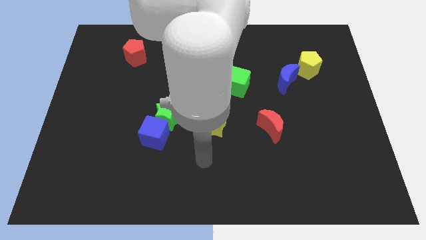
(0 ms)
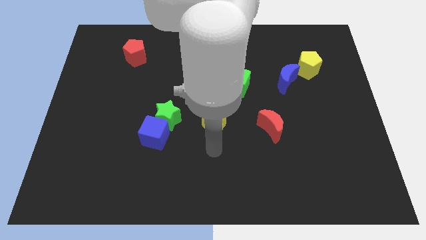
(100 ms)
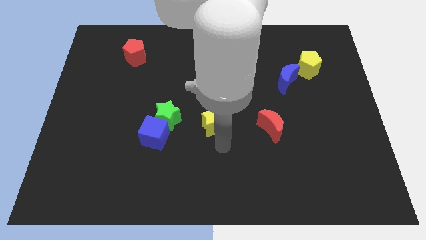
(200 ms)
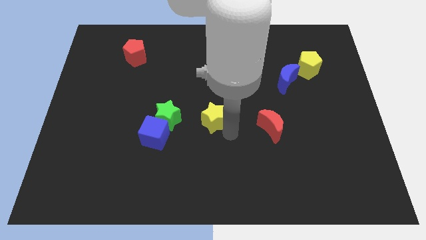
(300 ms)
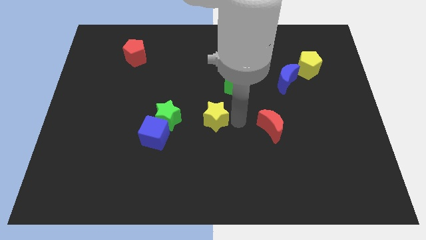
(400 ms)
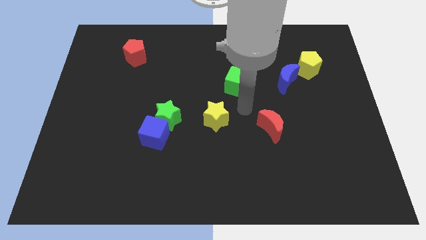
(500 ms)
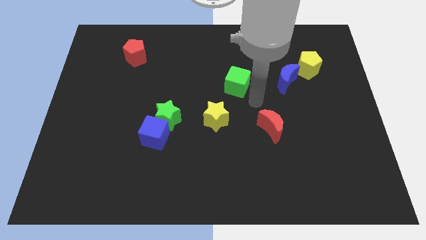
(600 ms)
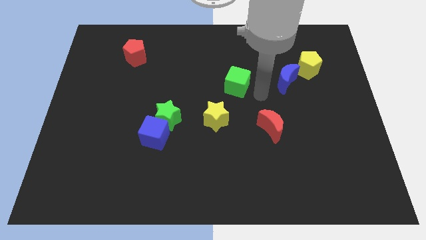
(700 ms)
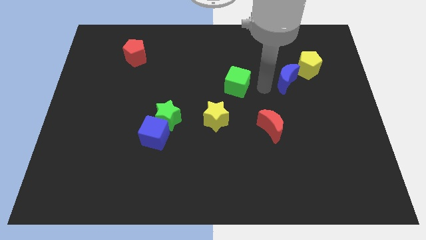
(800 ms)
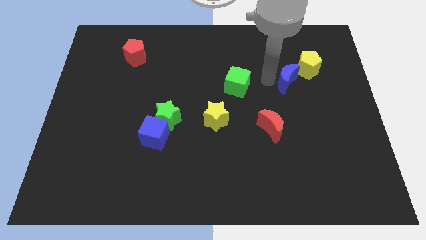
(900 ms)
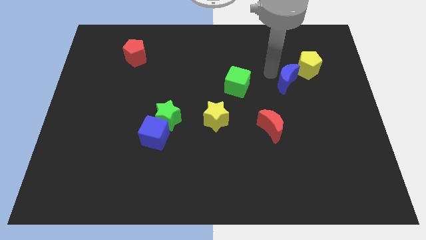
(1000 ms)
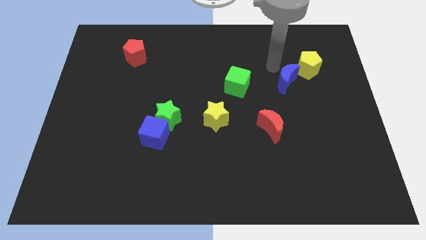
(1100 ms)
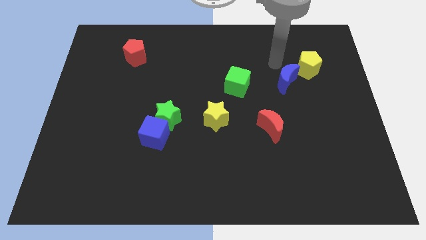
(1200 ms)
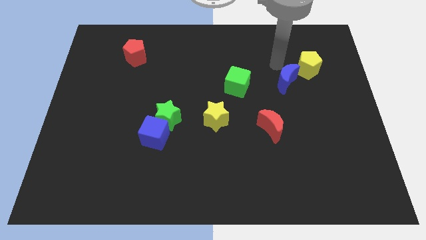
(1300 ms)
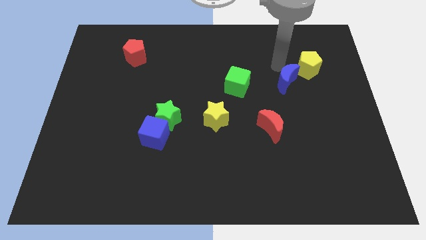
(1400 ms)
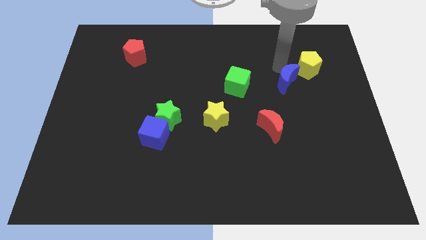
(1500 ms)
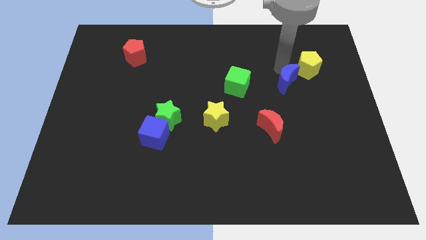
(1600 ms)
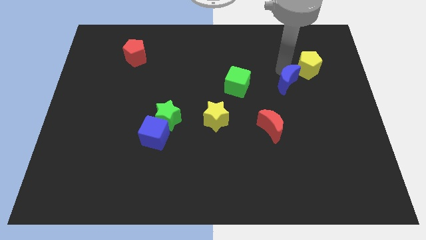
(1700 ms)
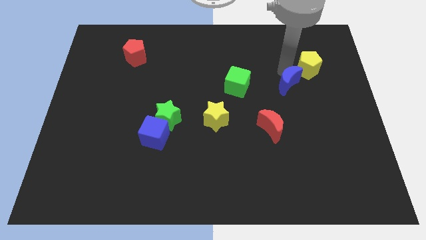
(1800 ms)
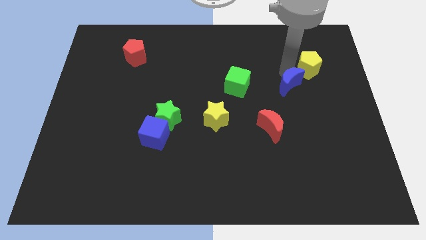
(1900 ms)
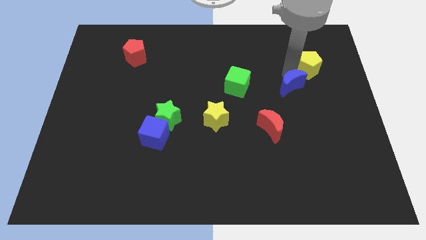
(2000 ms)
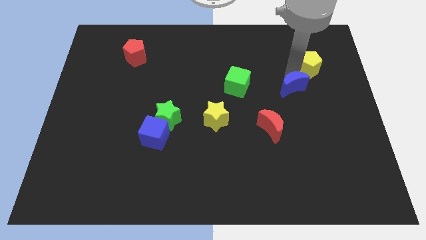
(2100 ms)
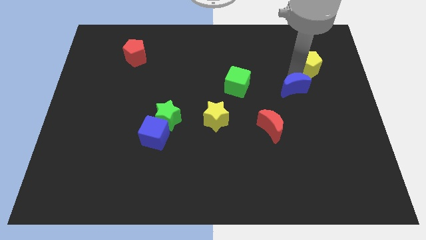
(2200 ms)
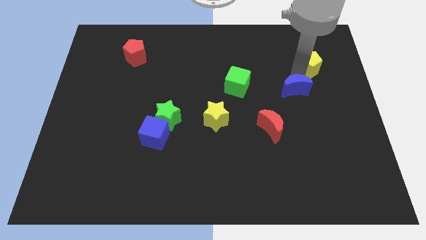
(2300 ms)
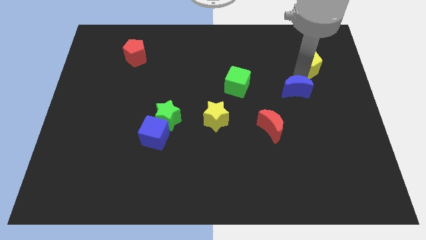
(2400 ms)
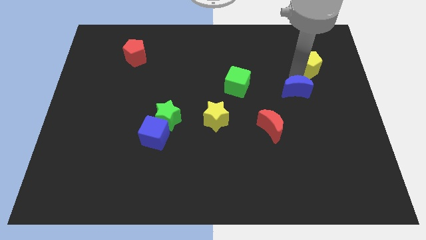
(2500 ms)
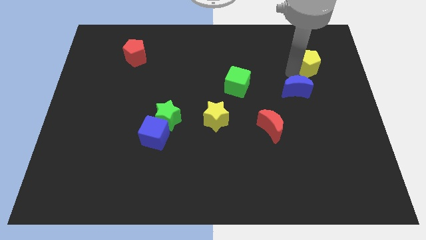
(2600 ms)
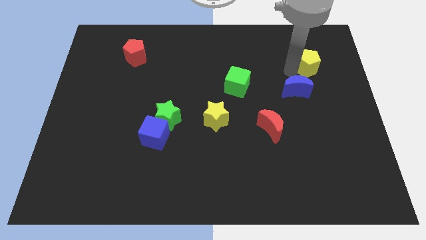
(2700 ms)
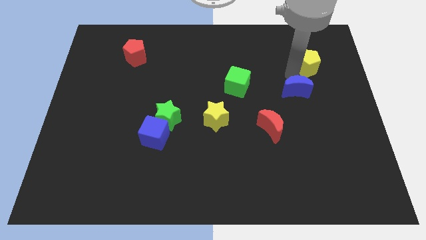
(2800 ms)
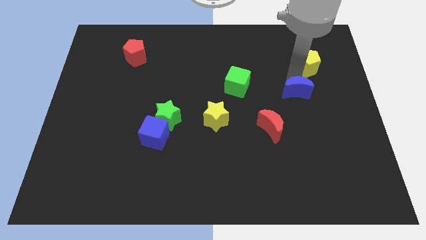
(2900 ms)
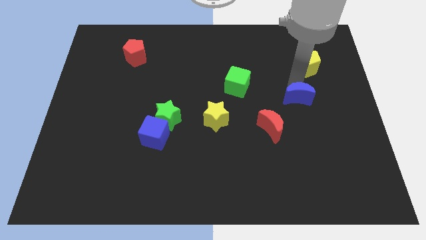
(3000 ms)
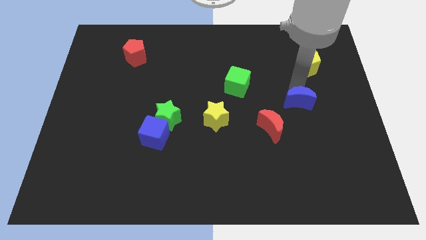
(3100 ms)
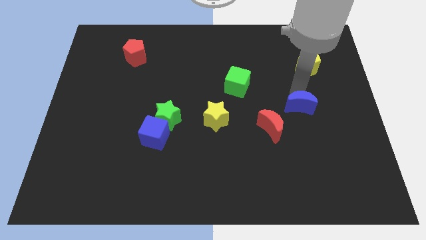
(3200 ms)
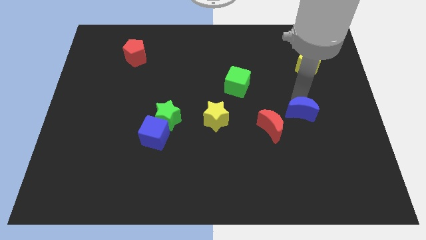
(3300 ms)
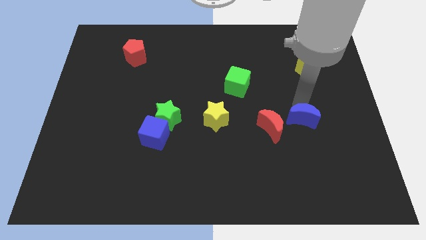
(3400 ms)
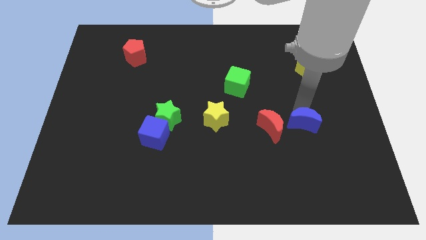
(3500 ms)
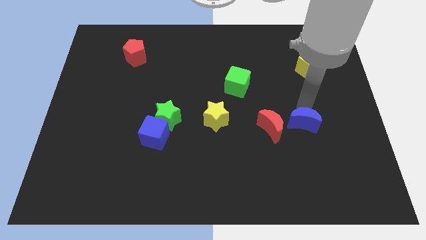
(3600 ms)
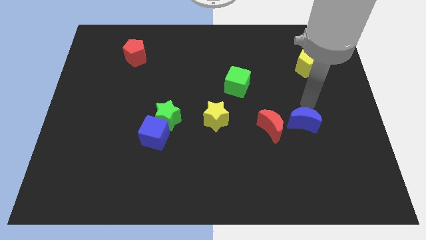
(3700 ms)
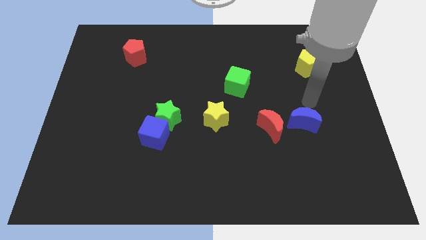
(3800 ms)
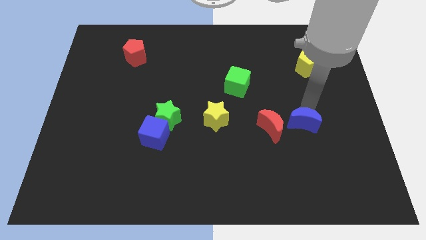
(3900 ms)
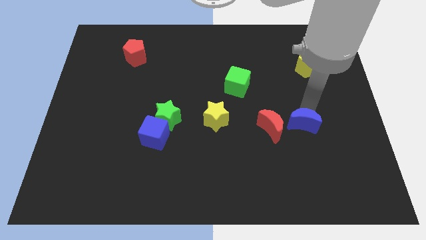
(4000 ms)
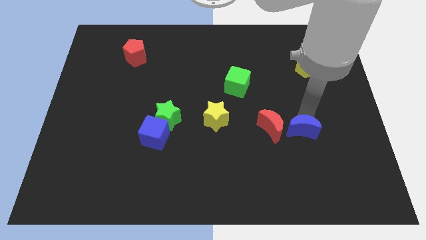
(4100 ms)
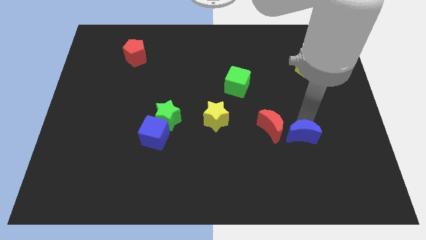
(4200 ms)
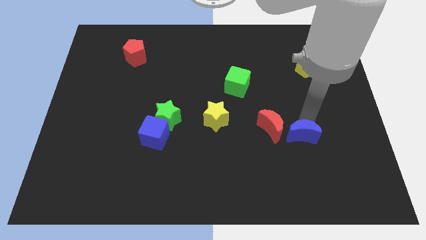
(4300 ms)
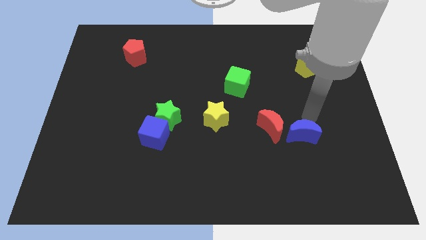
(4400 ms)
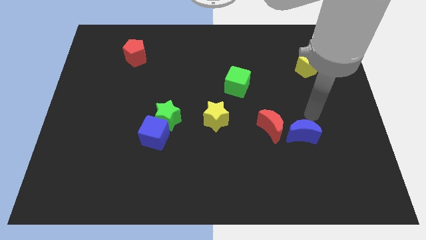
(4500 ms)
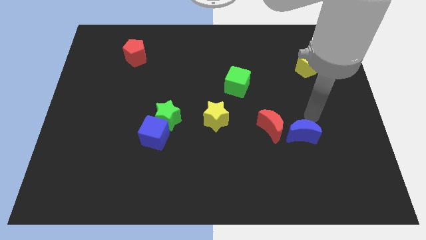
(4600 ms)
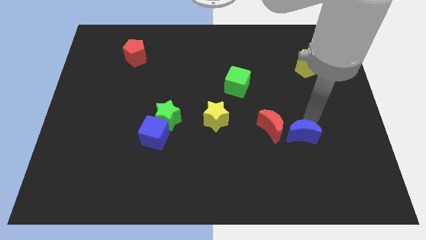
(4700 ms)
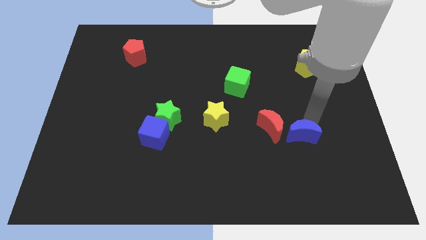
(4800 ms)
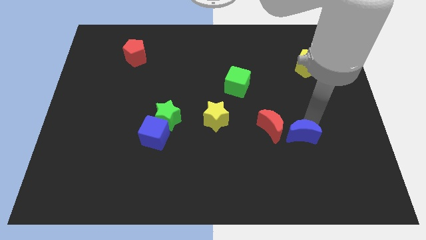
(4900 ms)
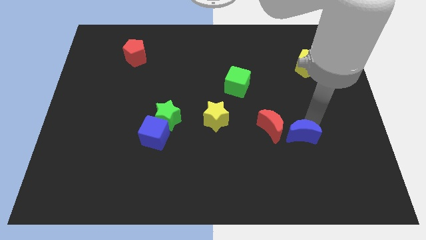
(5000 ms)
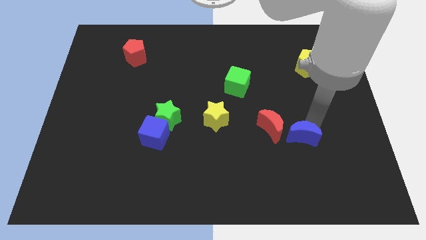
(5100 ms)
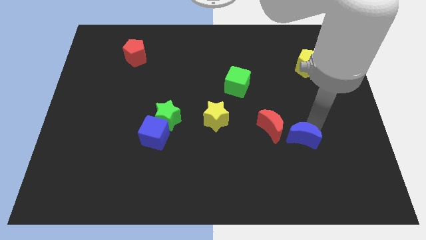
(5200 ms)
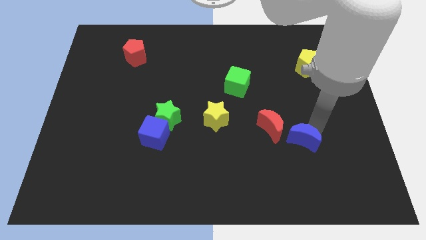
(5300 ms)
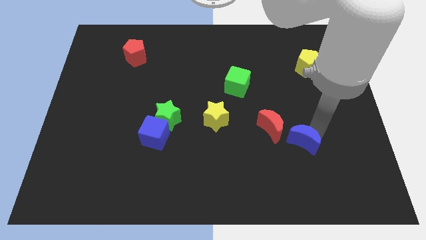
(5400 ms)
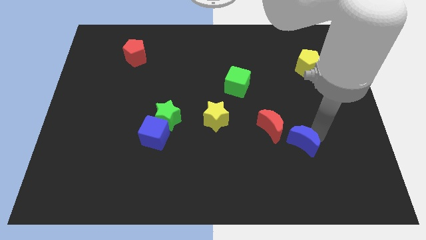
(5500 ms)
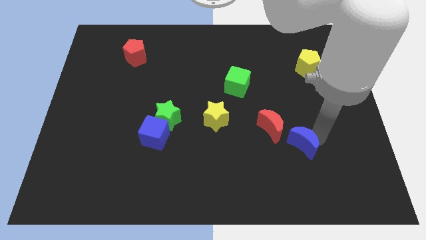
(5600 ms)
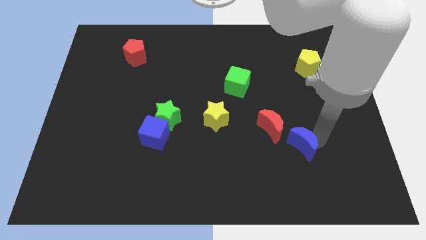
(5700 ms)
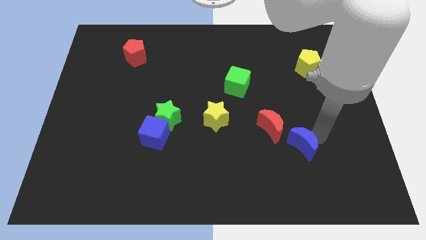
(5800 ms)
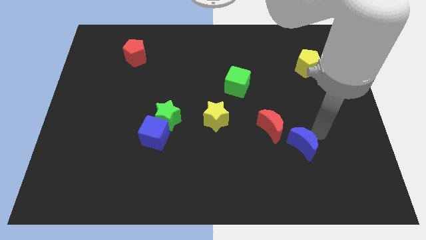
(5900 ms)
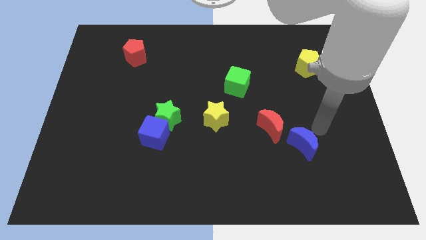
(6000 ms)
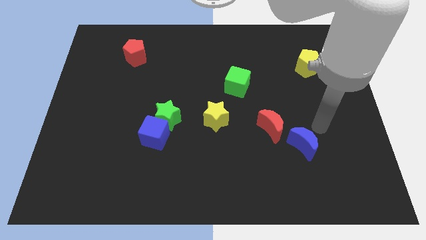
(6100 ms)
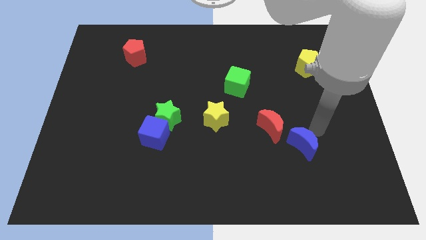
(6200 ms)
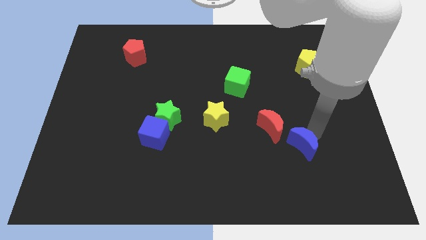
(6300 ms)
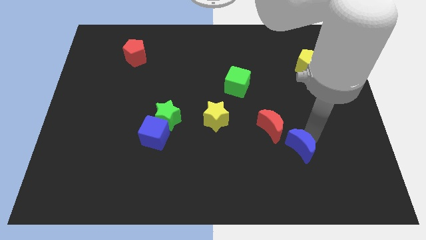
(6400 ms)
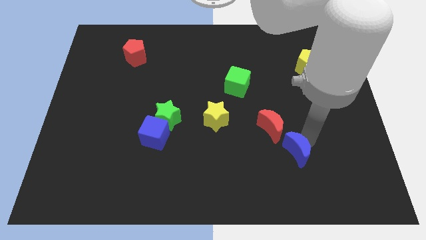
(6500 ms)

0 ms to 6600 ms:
slide the blue moon to the bottom of the red moon

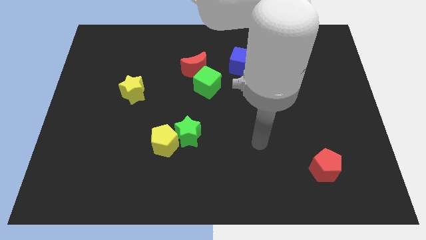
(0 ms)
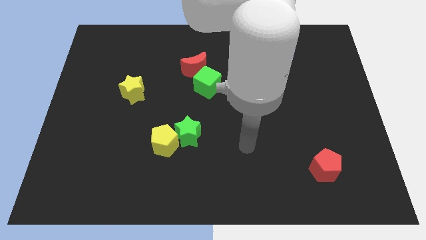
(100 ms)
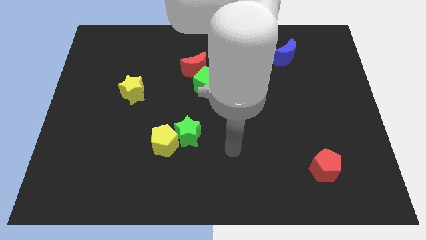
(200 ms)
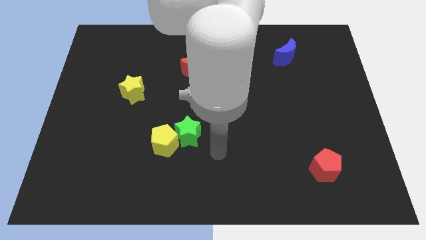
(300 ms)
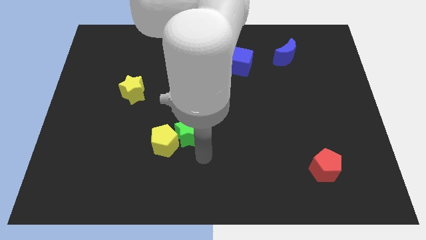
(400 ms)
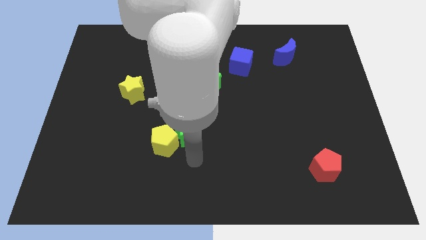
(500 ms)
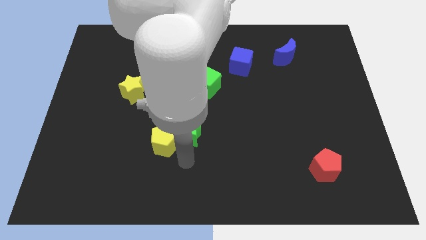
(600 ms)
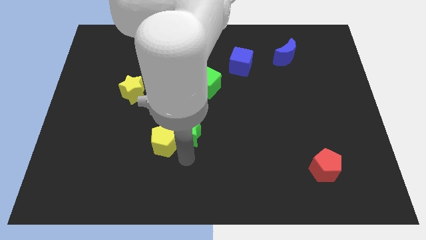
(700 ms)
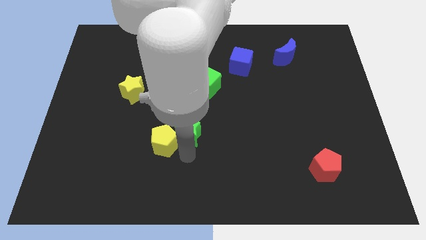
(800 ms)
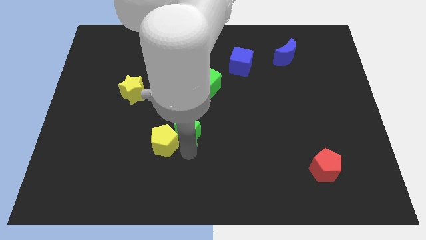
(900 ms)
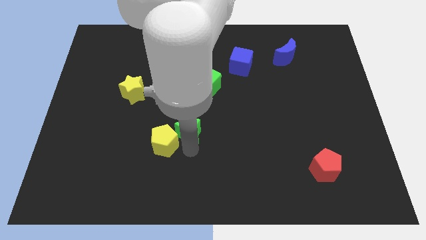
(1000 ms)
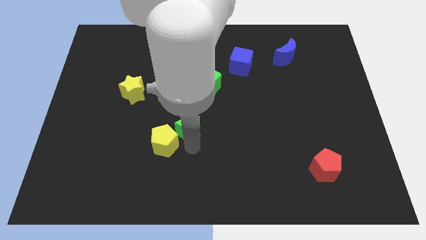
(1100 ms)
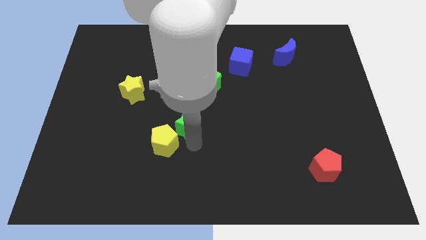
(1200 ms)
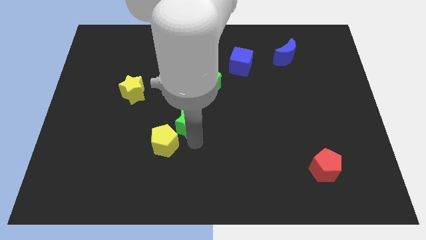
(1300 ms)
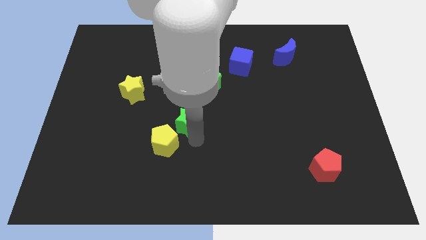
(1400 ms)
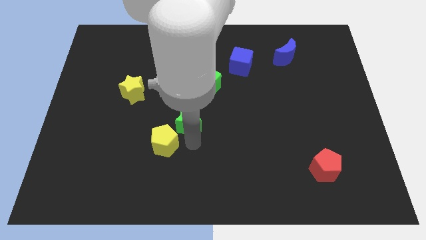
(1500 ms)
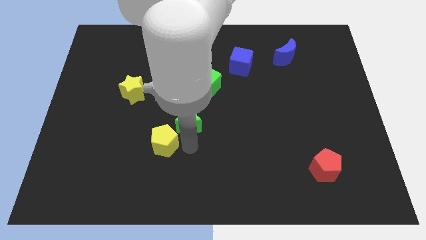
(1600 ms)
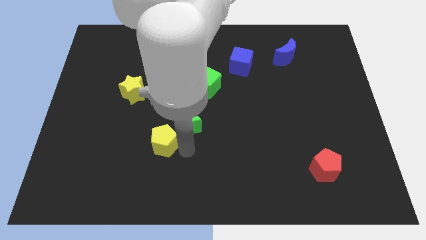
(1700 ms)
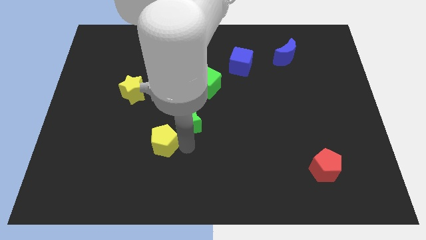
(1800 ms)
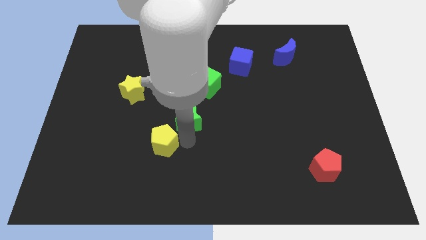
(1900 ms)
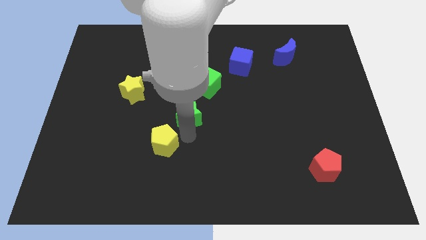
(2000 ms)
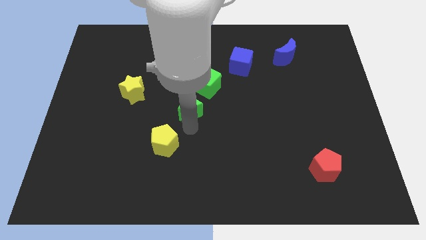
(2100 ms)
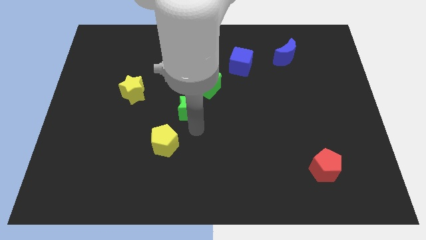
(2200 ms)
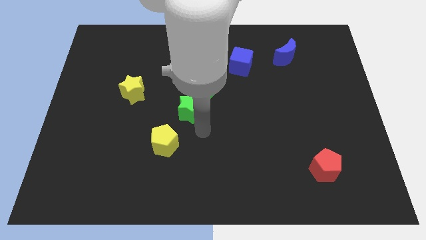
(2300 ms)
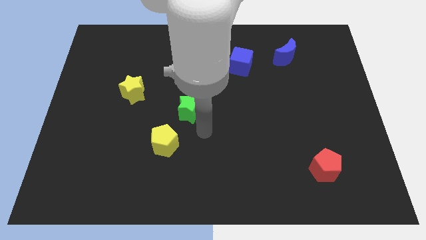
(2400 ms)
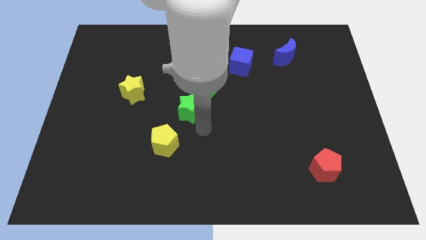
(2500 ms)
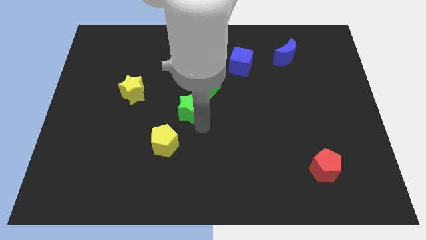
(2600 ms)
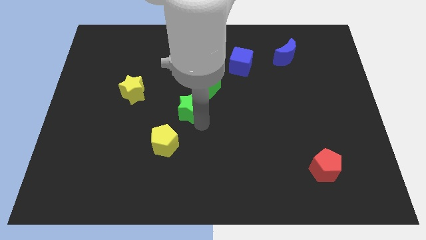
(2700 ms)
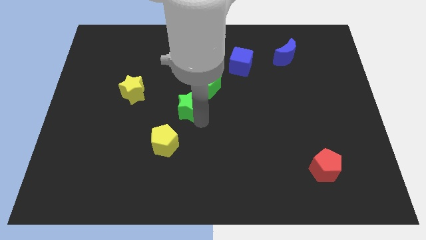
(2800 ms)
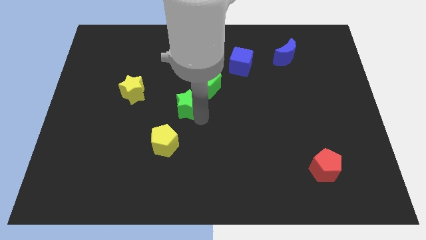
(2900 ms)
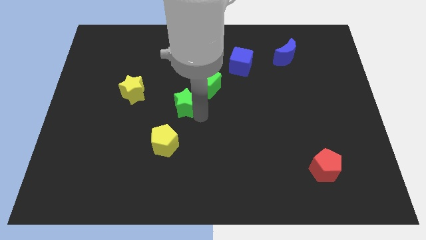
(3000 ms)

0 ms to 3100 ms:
put the green star to the right of the yellow star
